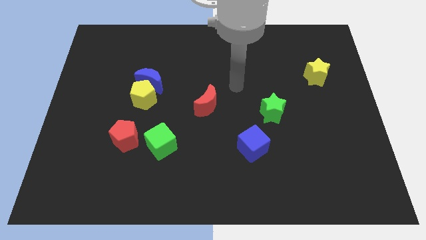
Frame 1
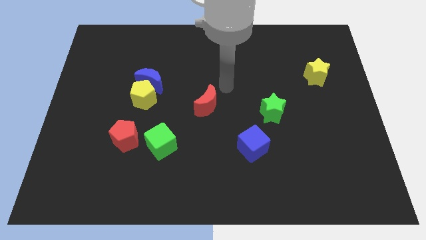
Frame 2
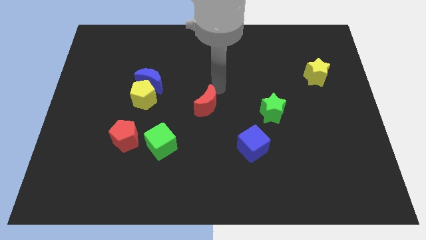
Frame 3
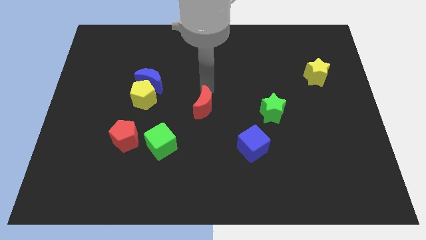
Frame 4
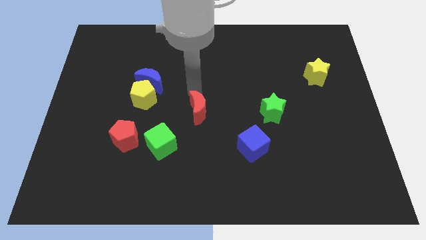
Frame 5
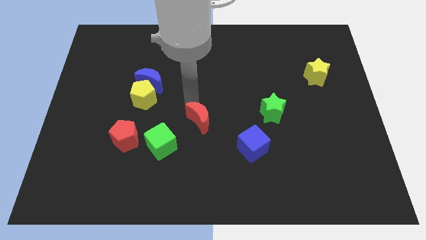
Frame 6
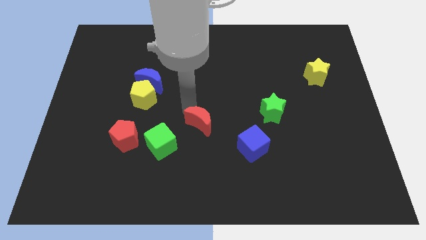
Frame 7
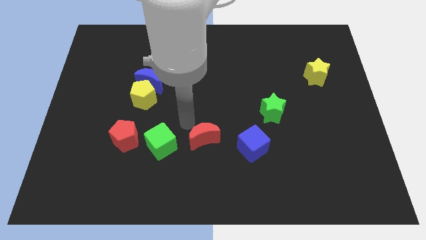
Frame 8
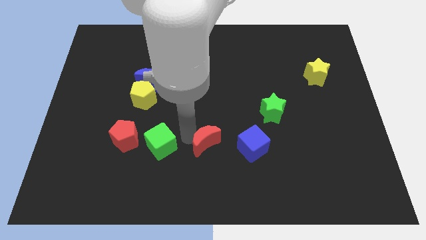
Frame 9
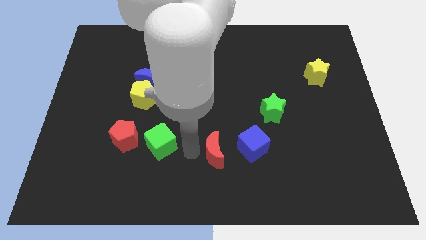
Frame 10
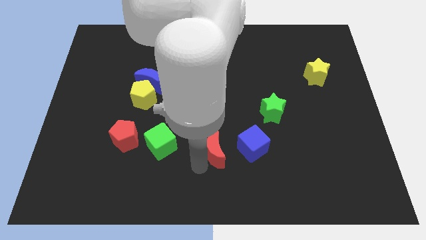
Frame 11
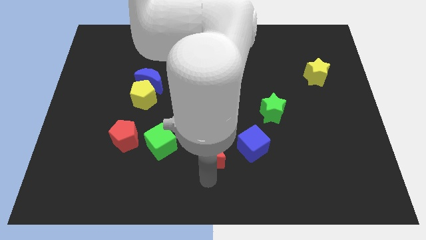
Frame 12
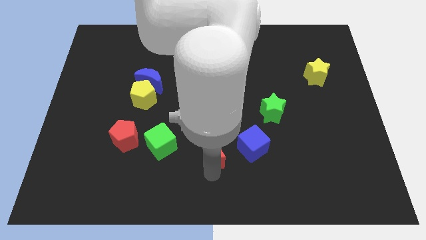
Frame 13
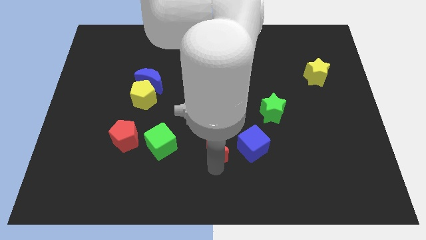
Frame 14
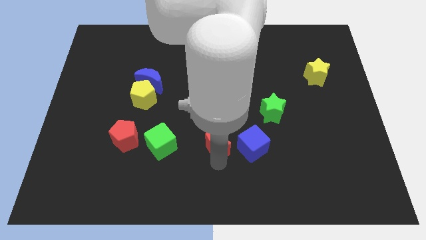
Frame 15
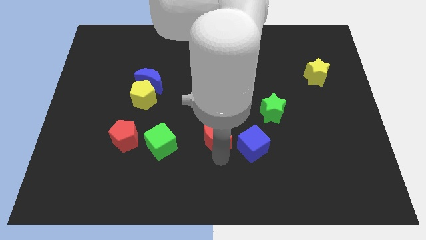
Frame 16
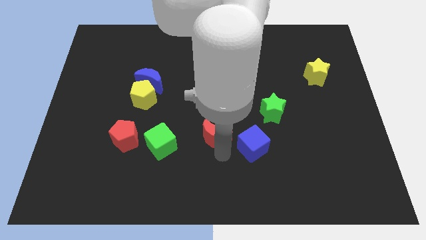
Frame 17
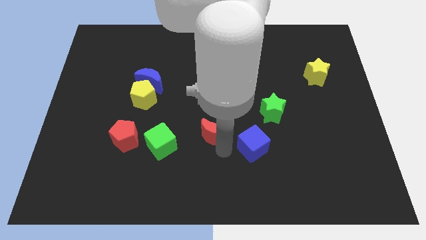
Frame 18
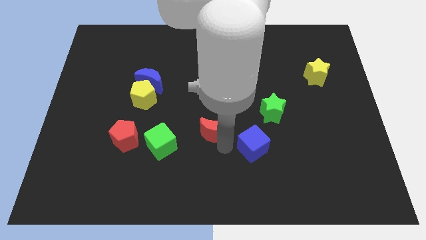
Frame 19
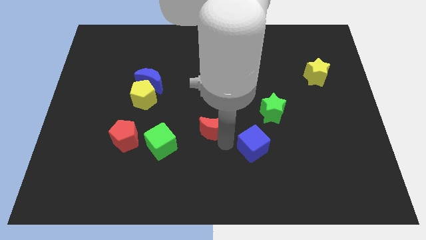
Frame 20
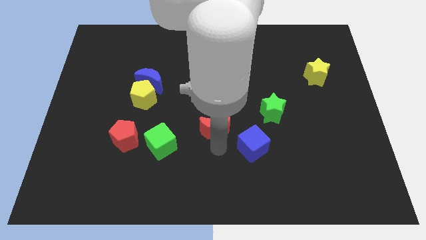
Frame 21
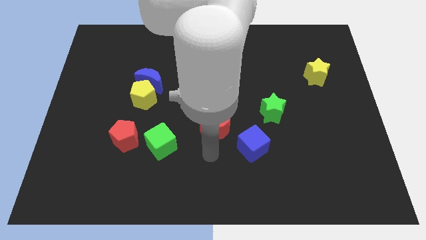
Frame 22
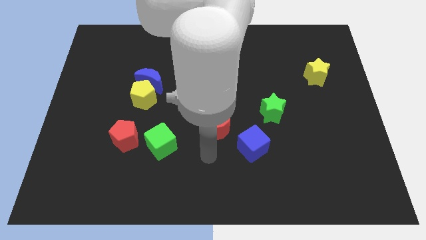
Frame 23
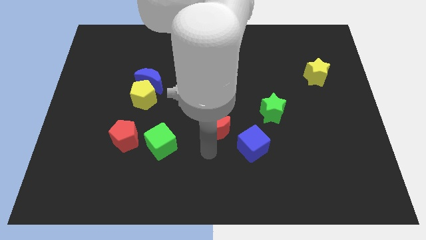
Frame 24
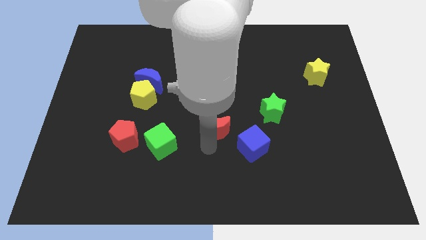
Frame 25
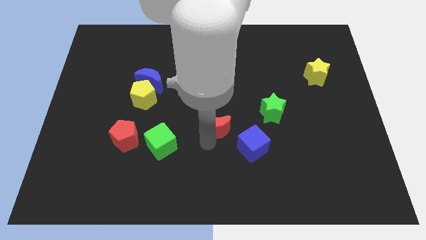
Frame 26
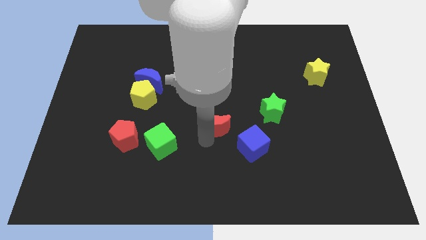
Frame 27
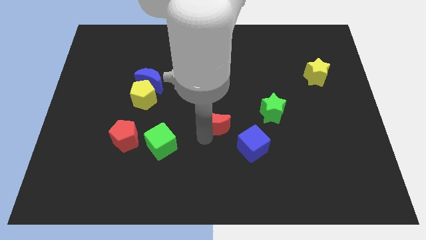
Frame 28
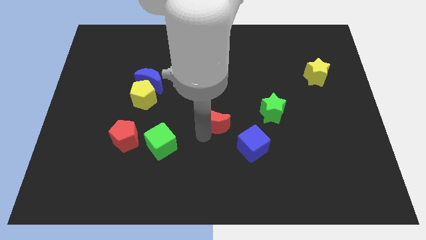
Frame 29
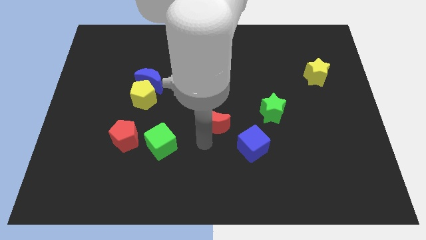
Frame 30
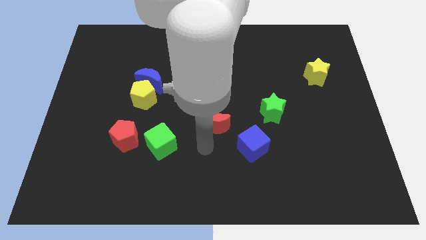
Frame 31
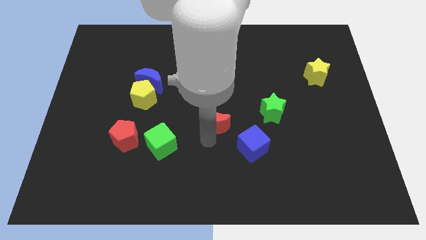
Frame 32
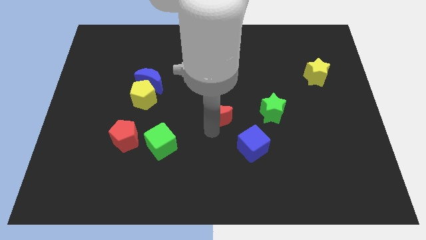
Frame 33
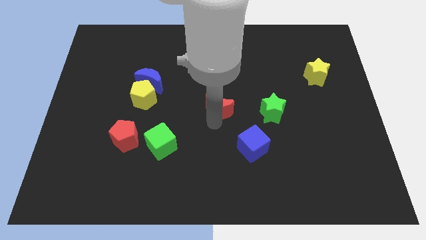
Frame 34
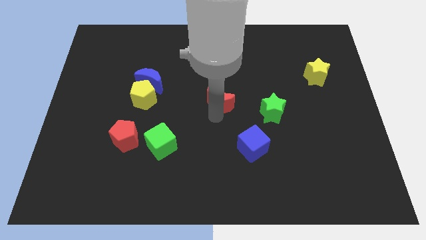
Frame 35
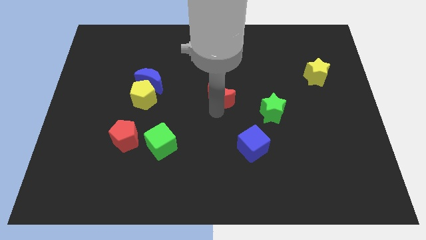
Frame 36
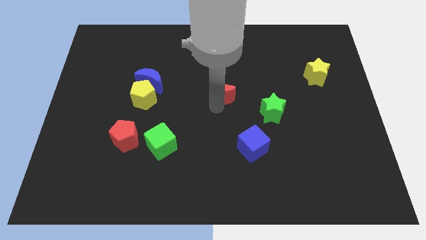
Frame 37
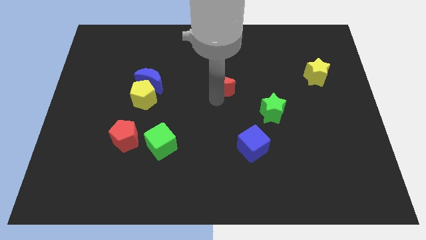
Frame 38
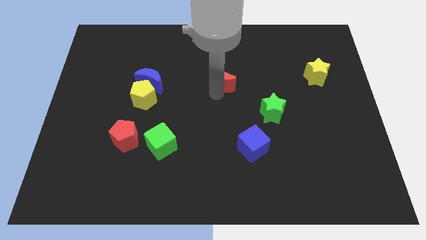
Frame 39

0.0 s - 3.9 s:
push the red moon a little bit up and to the right diagonally

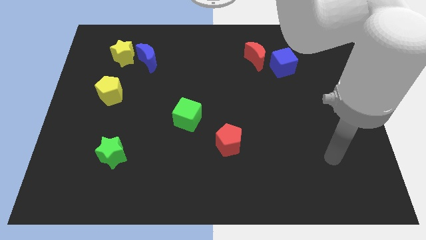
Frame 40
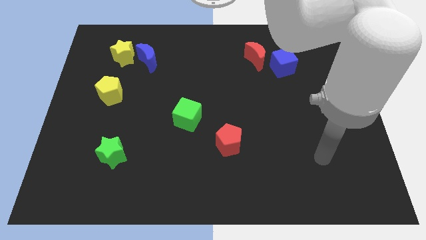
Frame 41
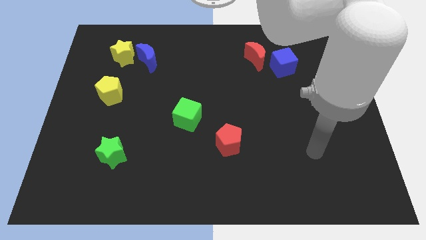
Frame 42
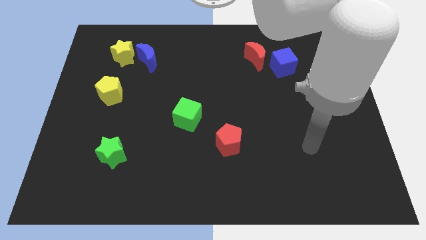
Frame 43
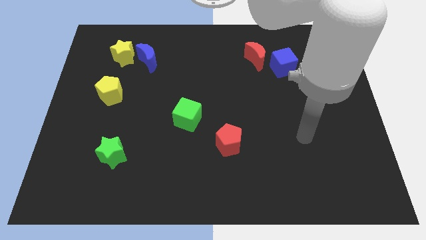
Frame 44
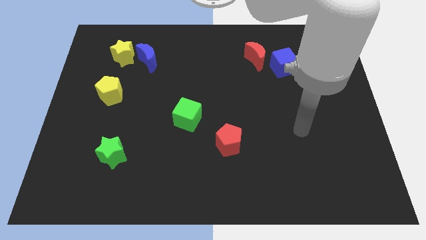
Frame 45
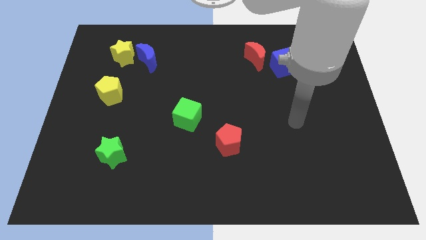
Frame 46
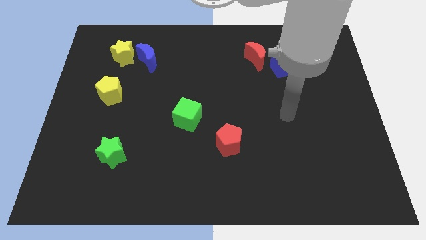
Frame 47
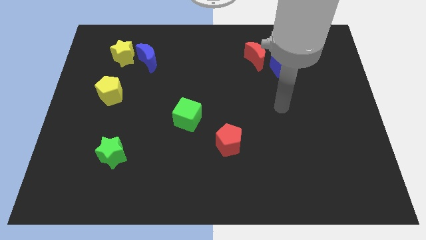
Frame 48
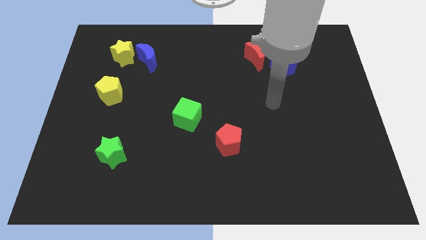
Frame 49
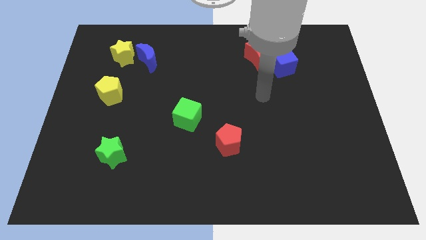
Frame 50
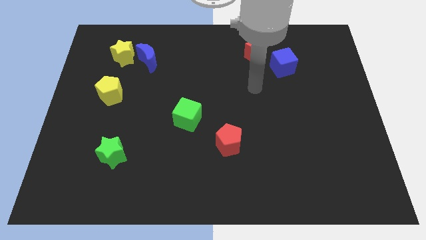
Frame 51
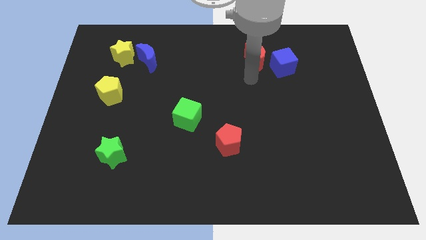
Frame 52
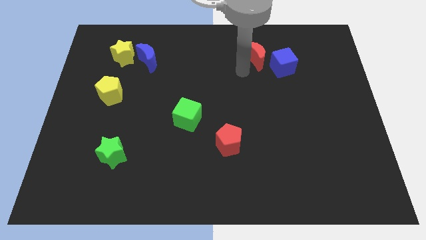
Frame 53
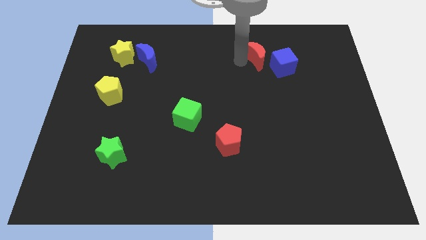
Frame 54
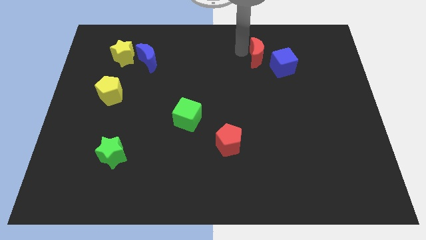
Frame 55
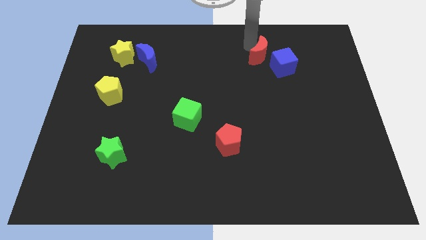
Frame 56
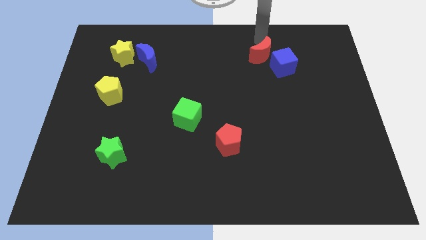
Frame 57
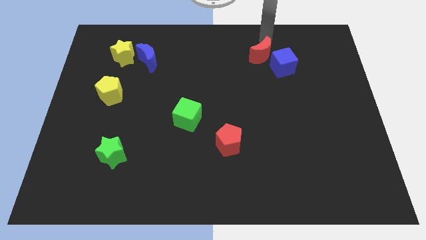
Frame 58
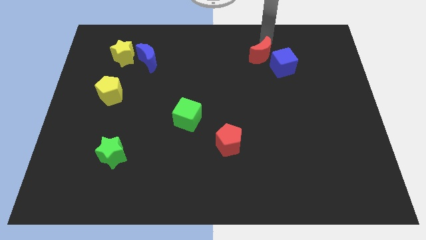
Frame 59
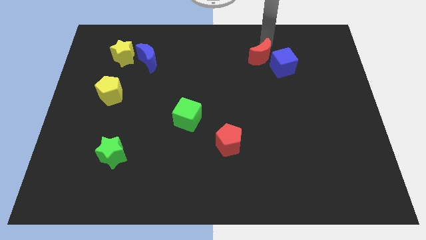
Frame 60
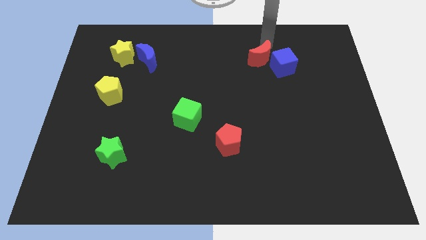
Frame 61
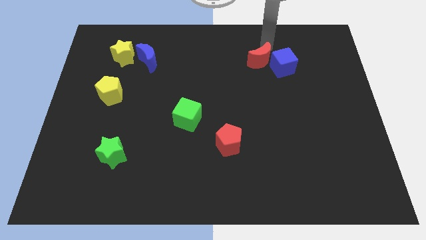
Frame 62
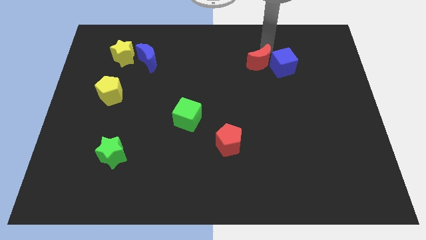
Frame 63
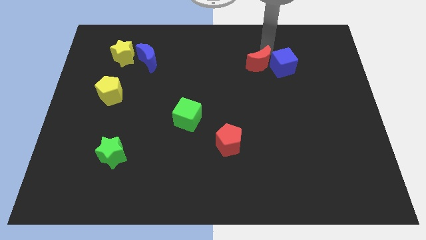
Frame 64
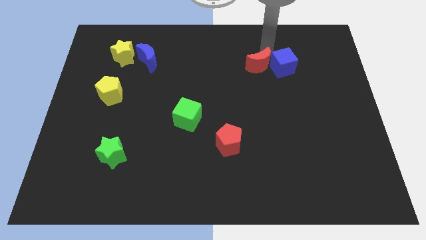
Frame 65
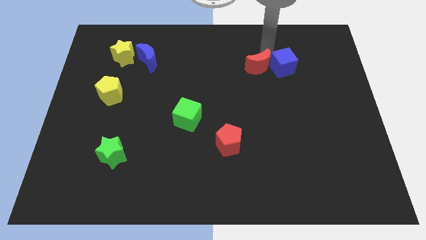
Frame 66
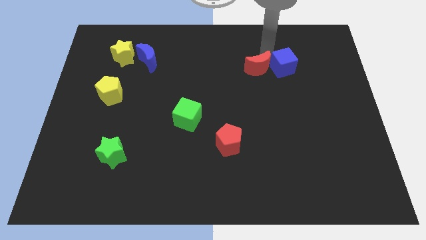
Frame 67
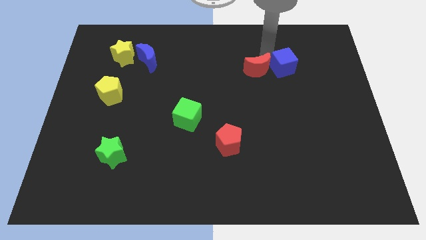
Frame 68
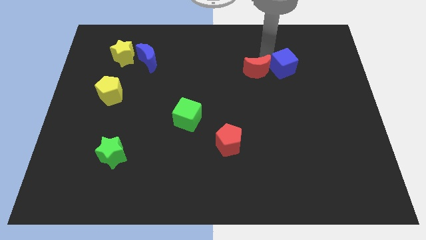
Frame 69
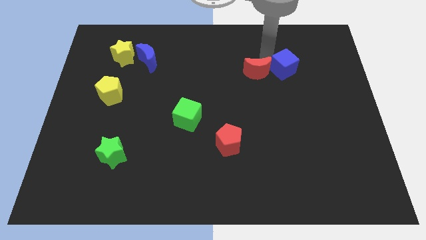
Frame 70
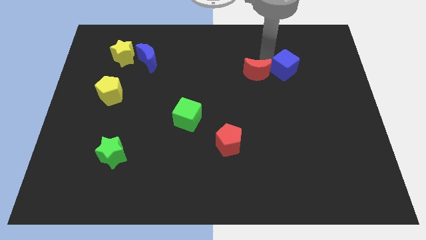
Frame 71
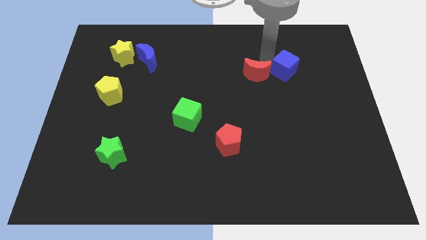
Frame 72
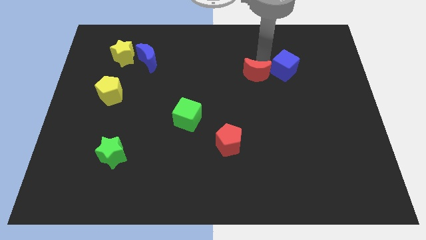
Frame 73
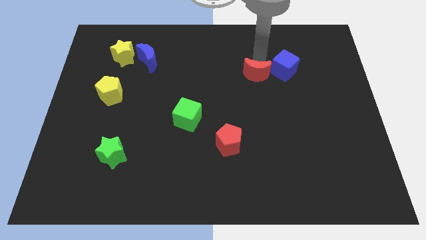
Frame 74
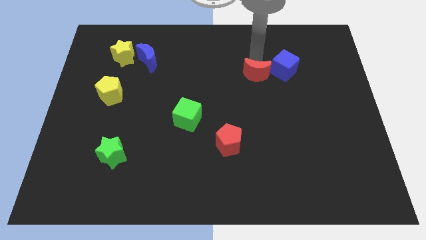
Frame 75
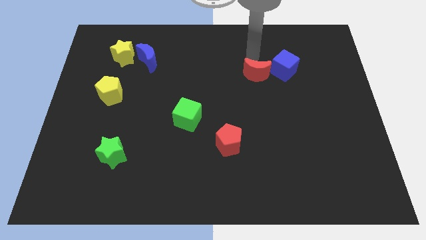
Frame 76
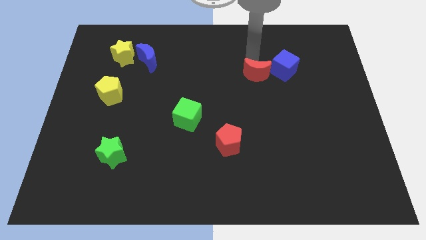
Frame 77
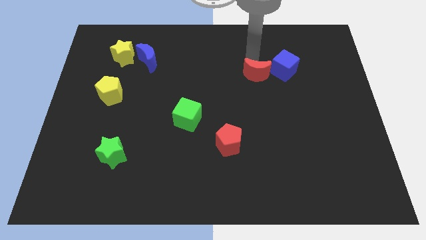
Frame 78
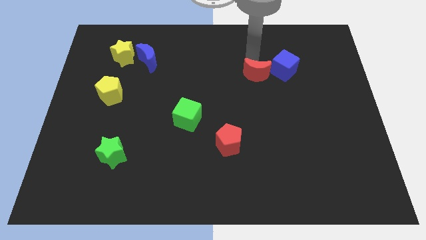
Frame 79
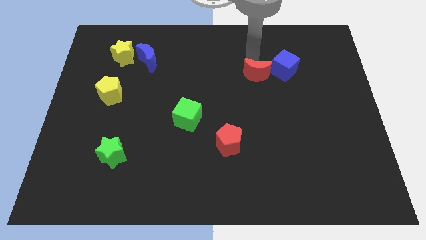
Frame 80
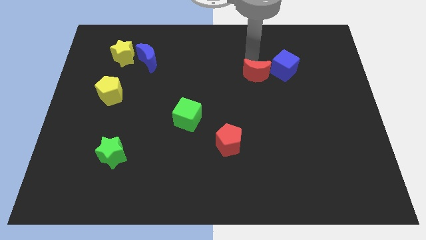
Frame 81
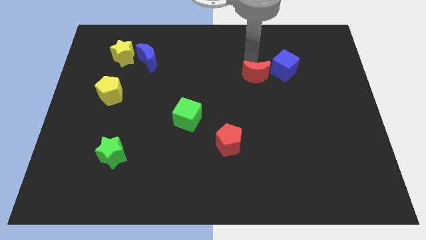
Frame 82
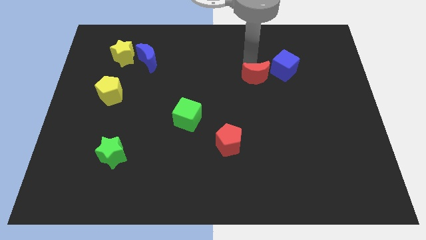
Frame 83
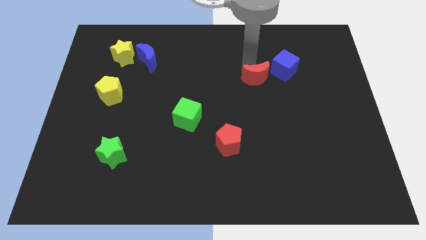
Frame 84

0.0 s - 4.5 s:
push the red moon a bit downwards
